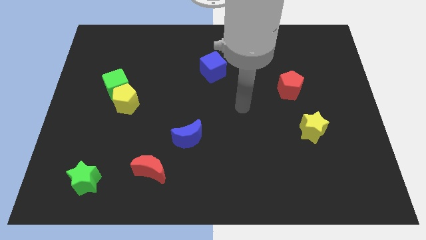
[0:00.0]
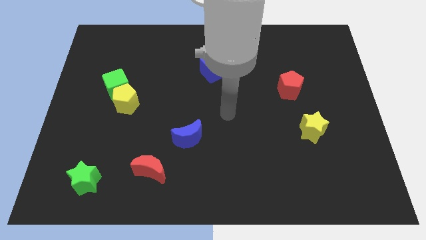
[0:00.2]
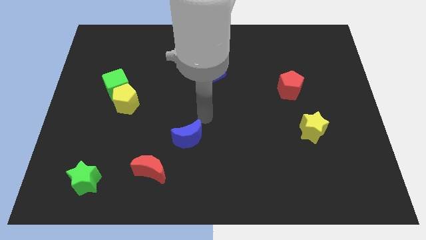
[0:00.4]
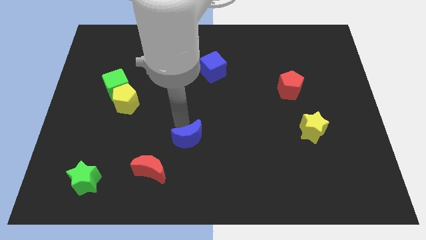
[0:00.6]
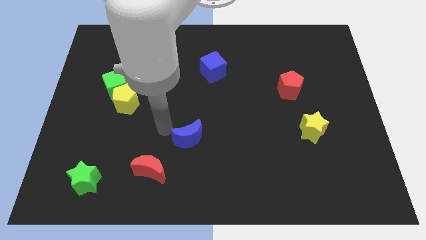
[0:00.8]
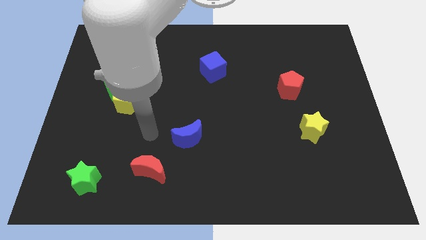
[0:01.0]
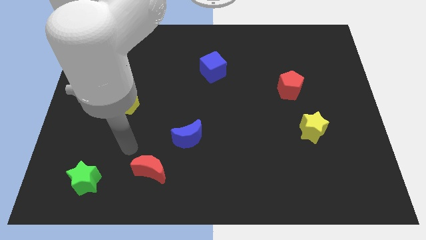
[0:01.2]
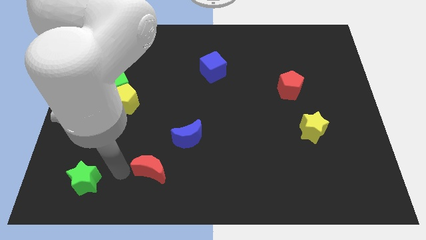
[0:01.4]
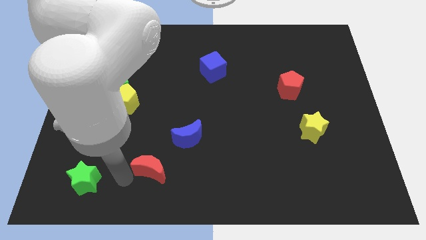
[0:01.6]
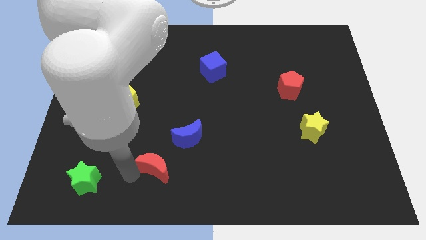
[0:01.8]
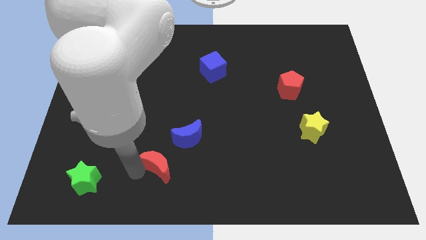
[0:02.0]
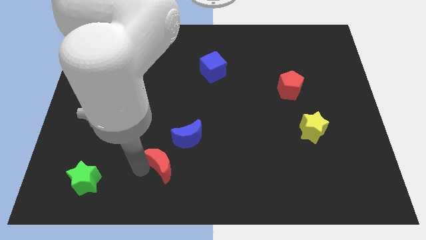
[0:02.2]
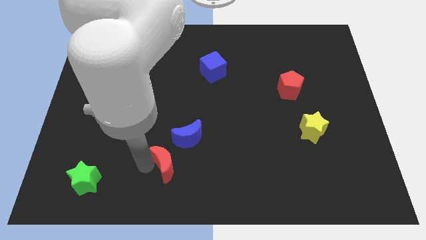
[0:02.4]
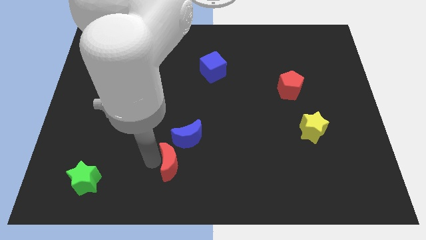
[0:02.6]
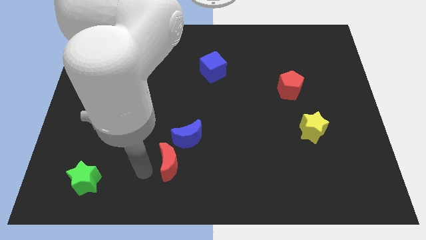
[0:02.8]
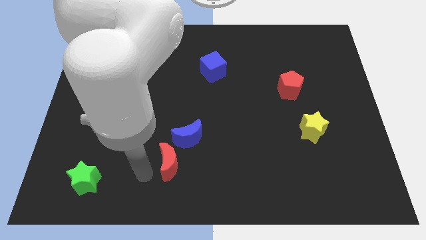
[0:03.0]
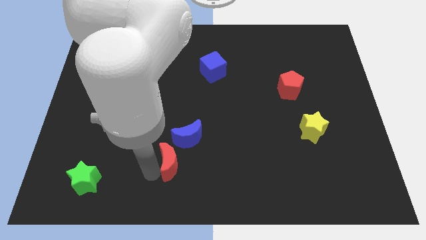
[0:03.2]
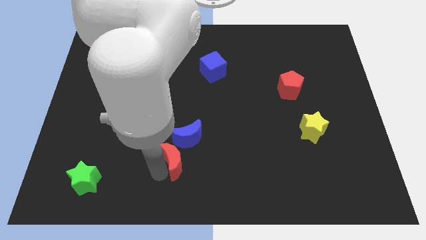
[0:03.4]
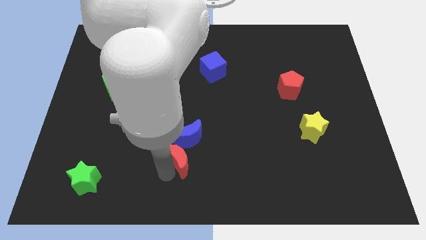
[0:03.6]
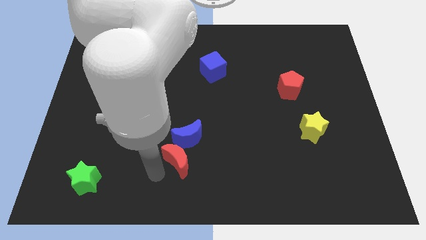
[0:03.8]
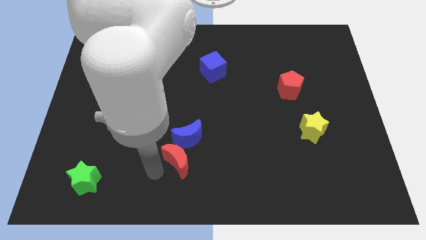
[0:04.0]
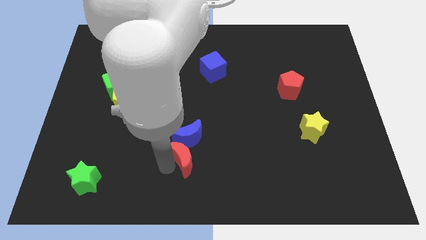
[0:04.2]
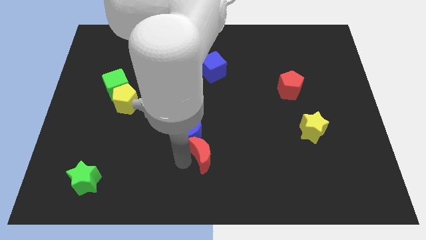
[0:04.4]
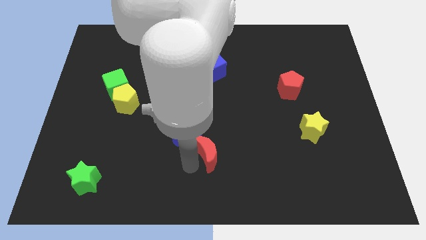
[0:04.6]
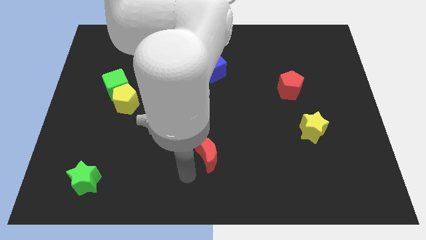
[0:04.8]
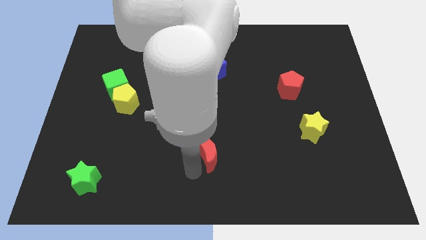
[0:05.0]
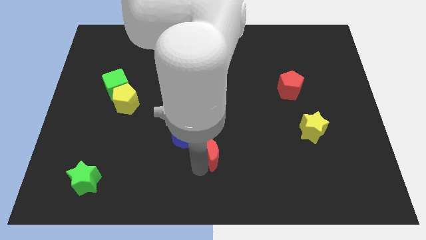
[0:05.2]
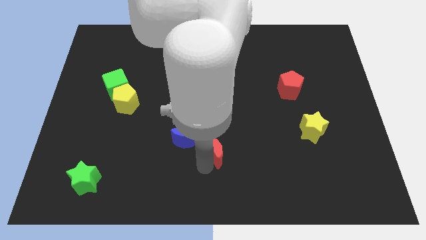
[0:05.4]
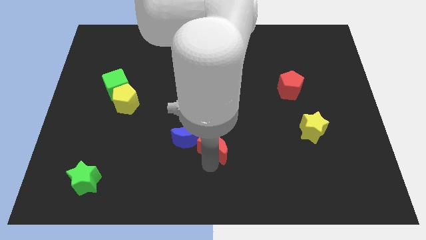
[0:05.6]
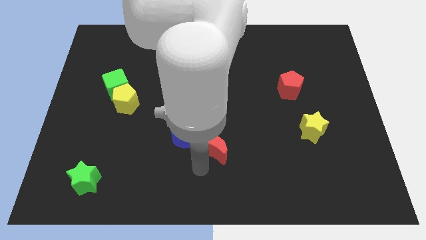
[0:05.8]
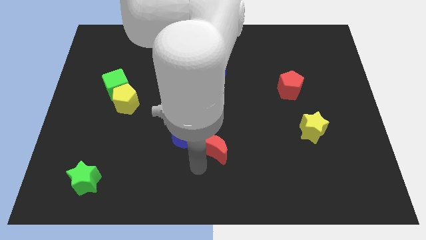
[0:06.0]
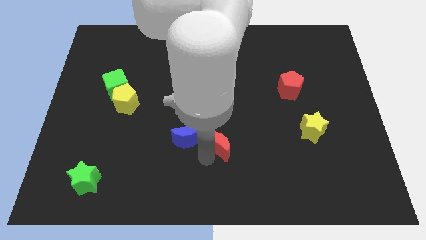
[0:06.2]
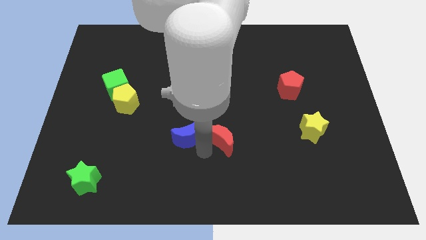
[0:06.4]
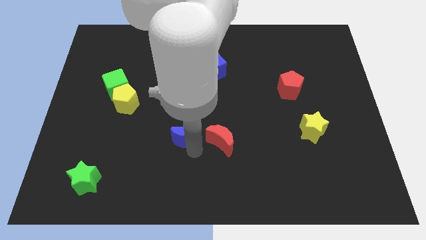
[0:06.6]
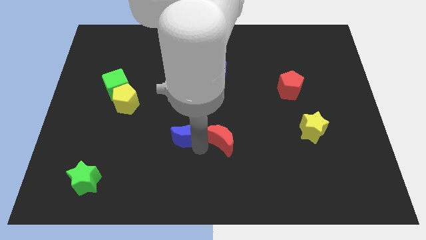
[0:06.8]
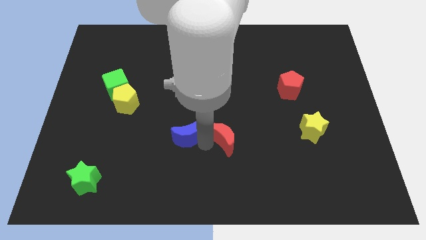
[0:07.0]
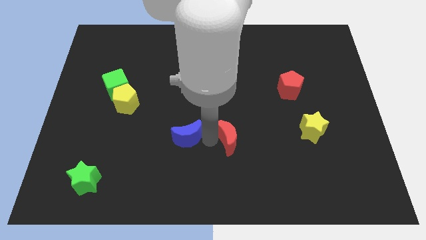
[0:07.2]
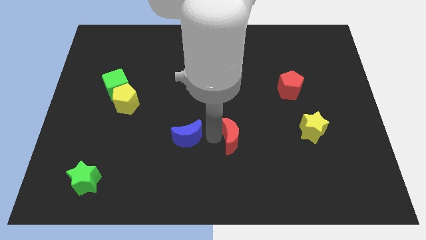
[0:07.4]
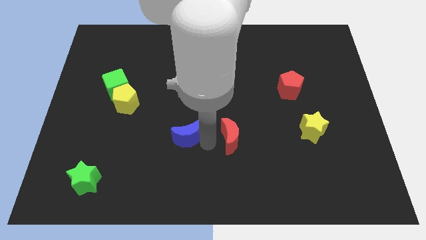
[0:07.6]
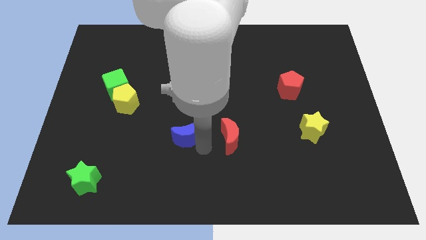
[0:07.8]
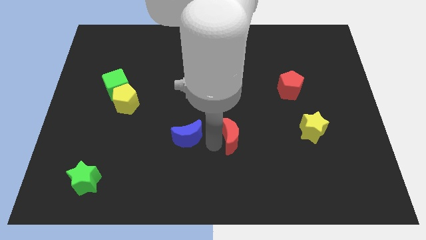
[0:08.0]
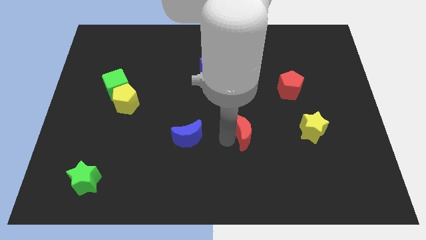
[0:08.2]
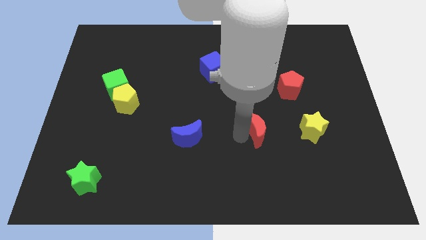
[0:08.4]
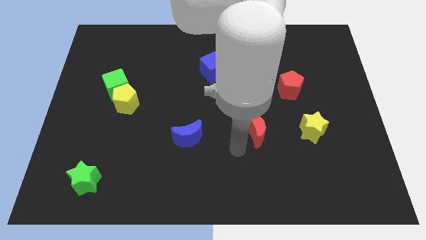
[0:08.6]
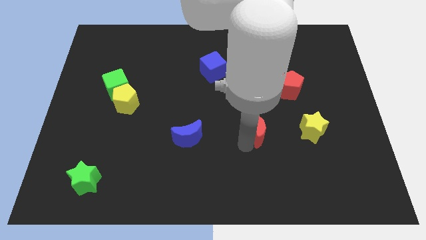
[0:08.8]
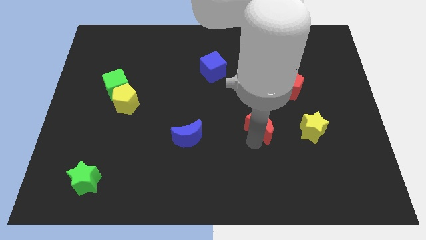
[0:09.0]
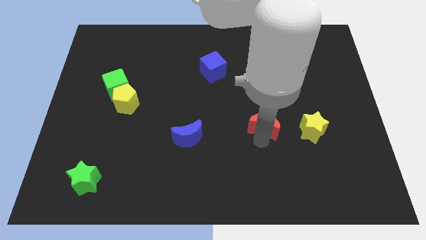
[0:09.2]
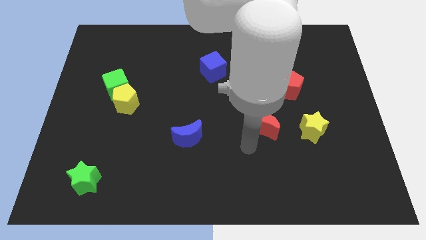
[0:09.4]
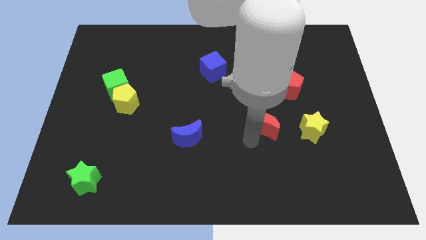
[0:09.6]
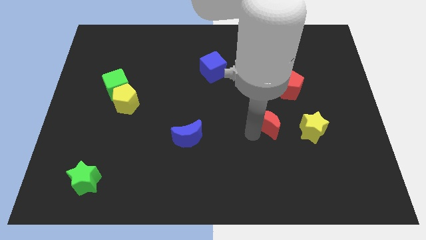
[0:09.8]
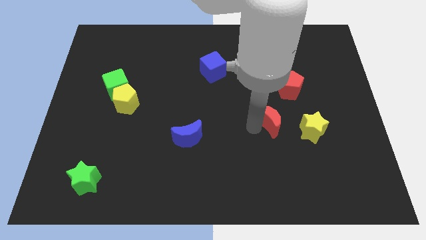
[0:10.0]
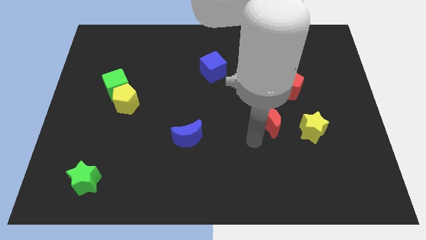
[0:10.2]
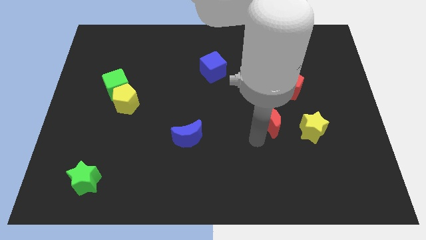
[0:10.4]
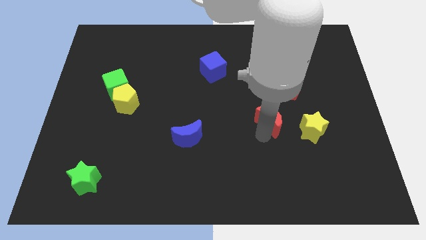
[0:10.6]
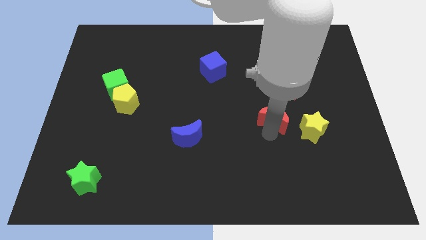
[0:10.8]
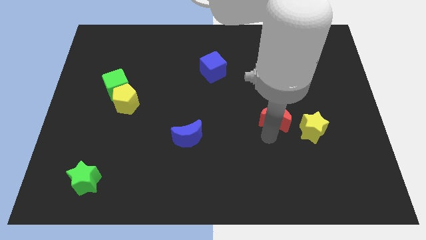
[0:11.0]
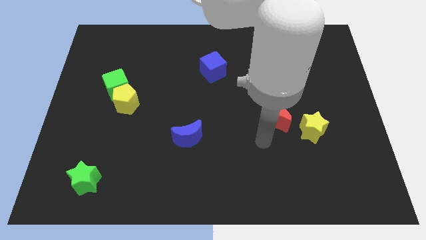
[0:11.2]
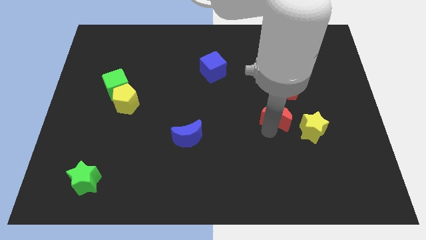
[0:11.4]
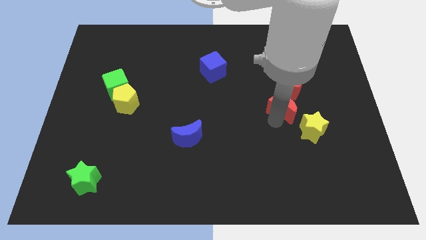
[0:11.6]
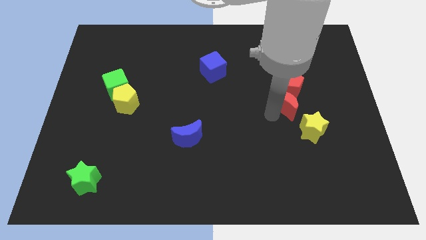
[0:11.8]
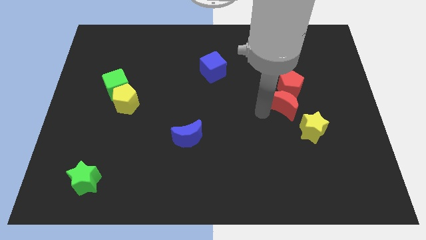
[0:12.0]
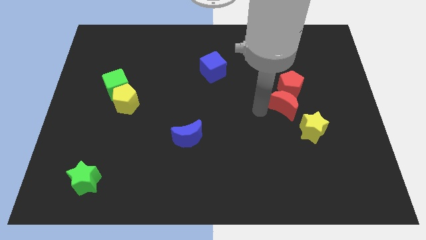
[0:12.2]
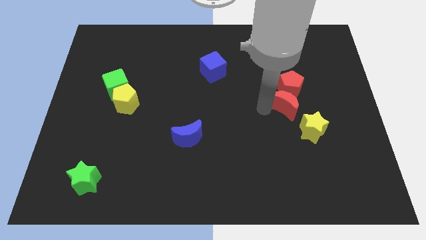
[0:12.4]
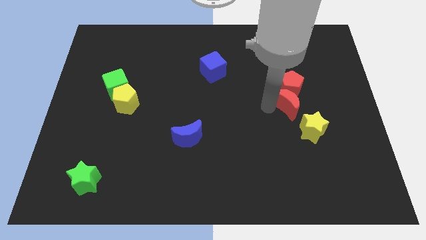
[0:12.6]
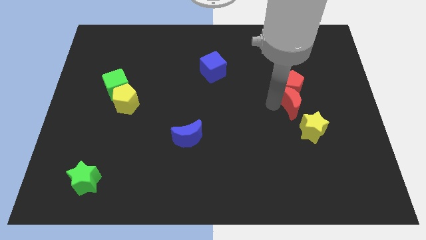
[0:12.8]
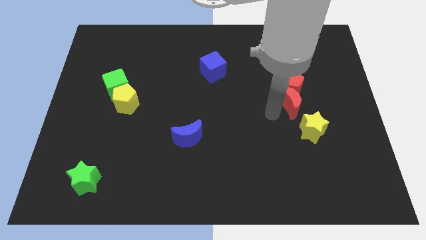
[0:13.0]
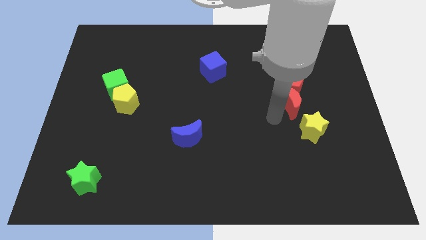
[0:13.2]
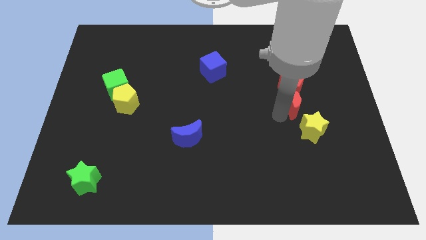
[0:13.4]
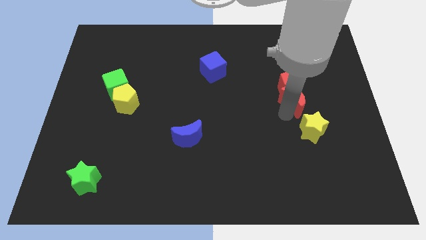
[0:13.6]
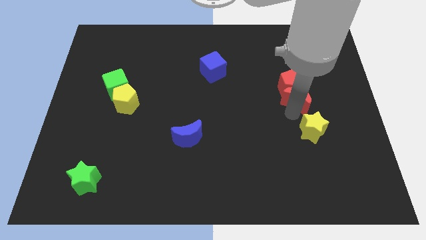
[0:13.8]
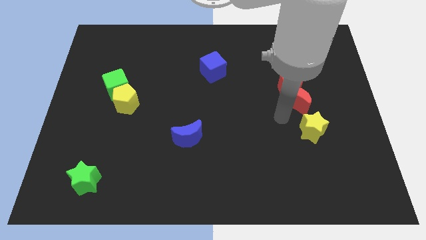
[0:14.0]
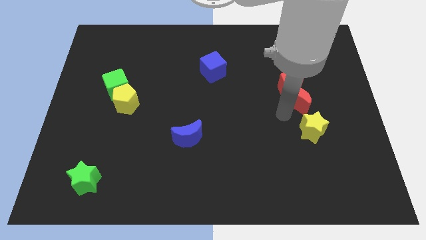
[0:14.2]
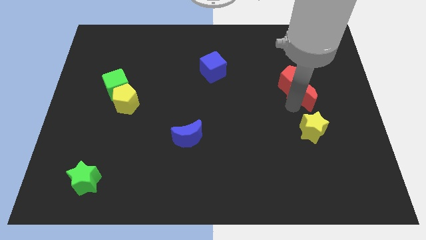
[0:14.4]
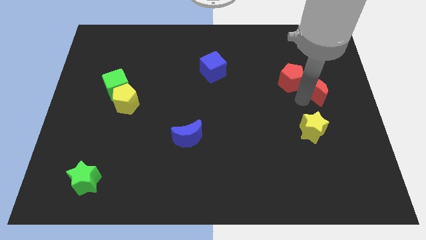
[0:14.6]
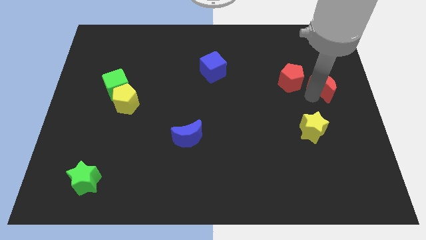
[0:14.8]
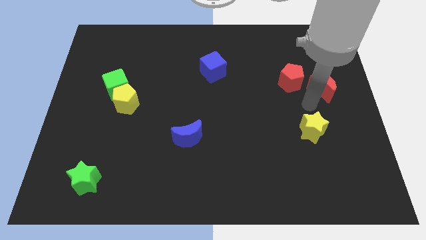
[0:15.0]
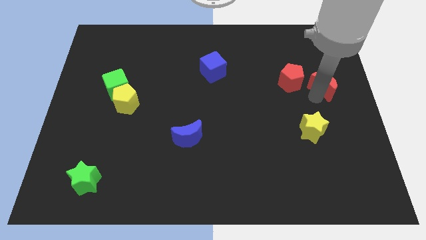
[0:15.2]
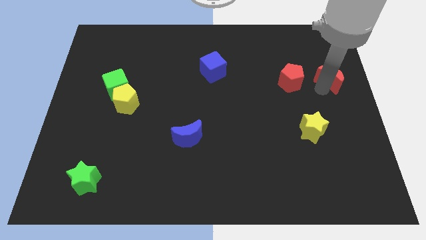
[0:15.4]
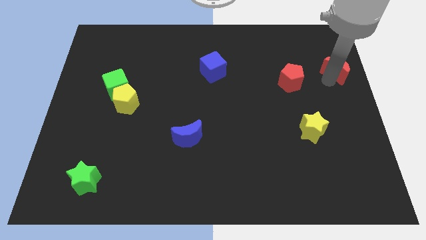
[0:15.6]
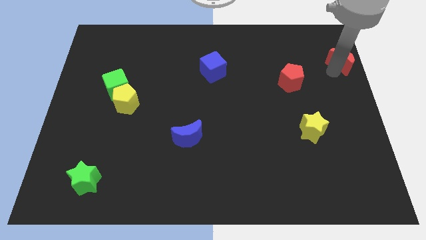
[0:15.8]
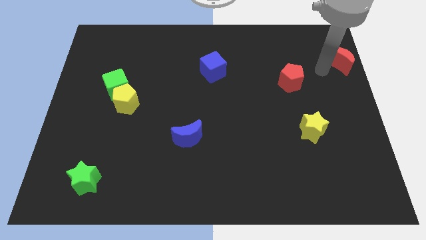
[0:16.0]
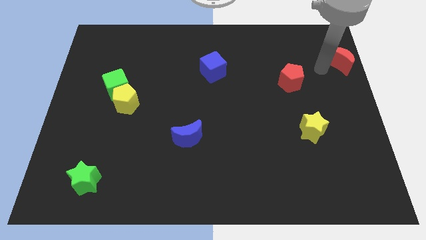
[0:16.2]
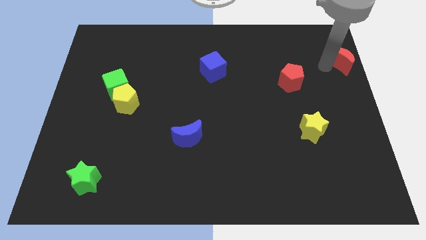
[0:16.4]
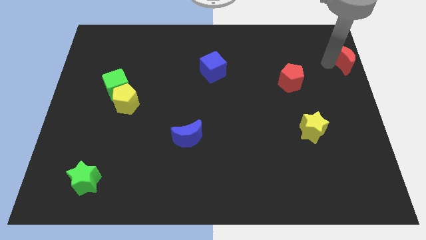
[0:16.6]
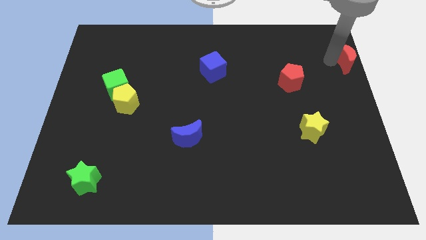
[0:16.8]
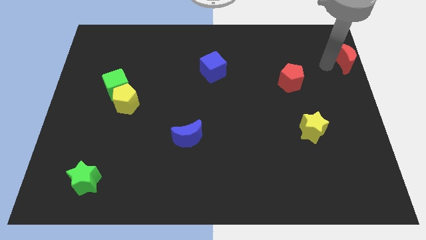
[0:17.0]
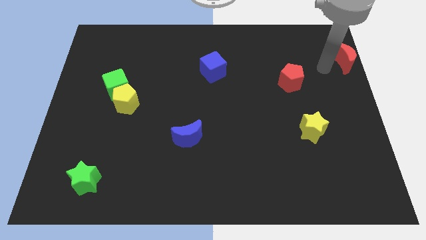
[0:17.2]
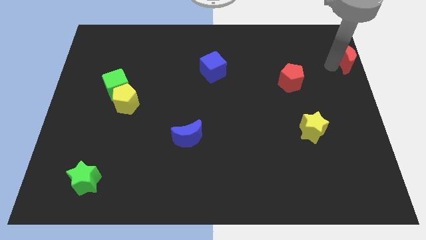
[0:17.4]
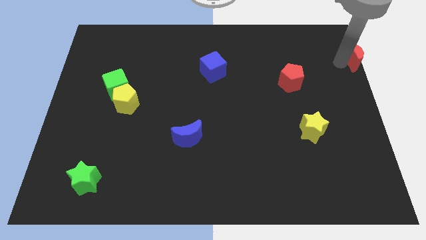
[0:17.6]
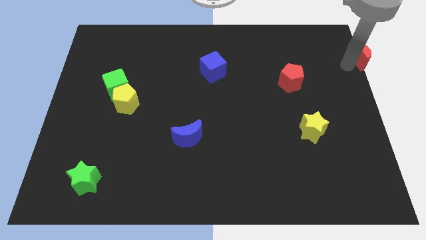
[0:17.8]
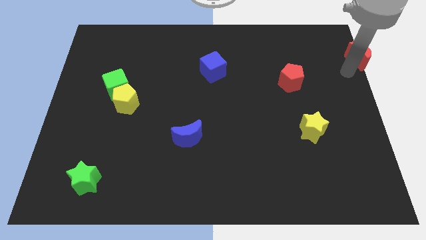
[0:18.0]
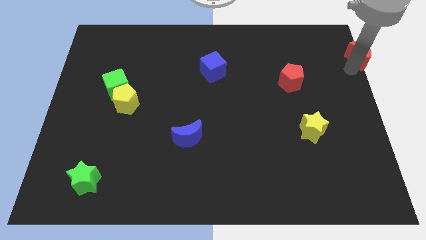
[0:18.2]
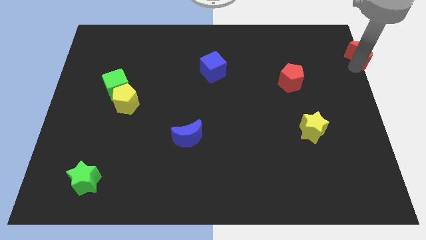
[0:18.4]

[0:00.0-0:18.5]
move the red moon to the upper right corner
